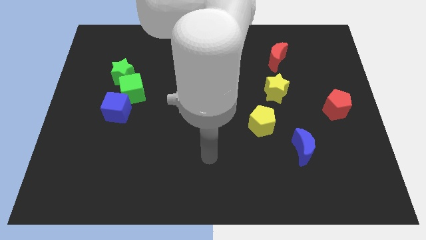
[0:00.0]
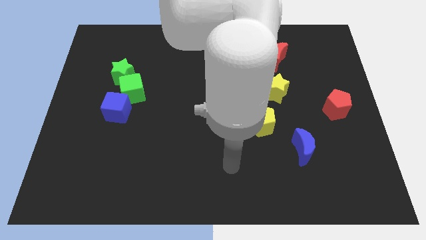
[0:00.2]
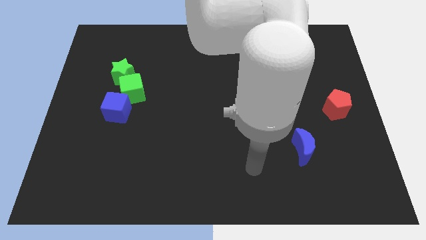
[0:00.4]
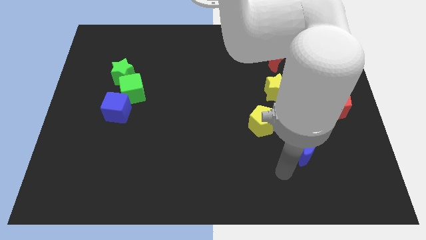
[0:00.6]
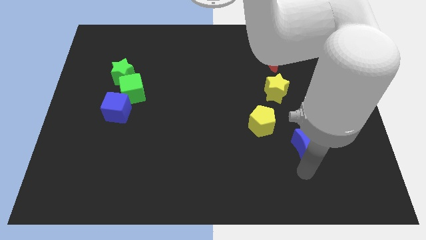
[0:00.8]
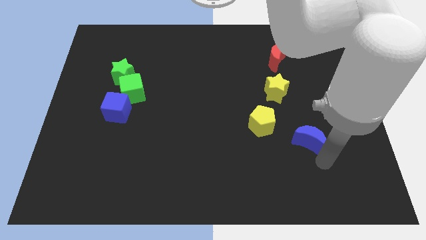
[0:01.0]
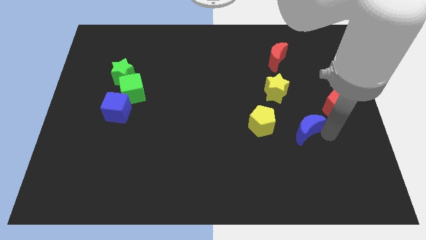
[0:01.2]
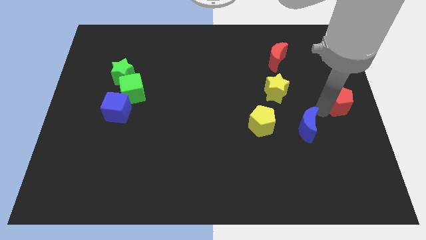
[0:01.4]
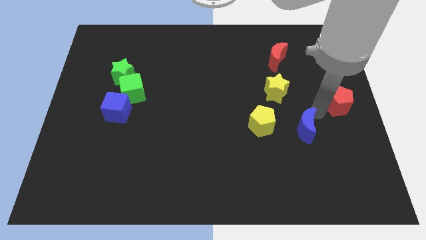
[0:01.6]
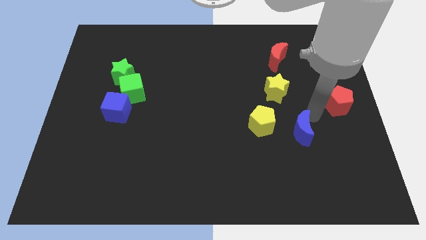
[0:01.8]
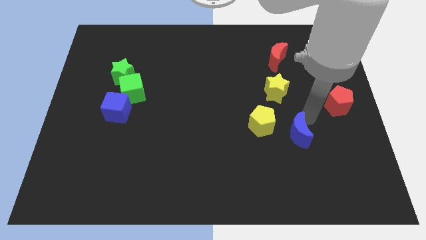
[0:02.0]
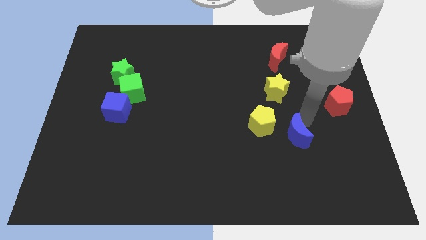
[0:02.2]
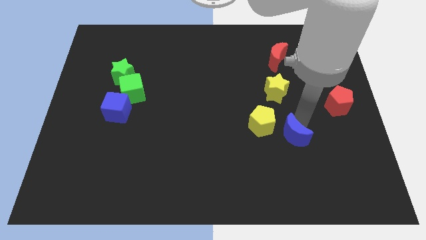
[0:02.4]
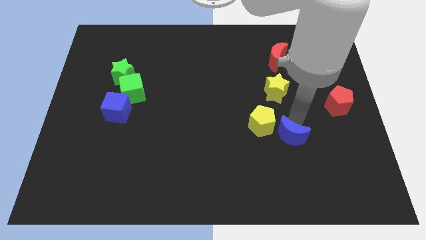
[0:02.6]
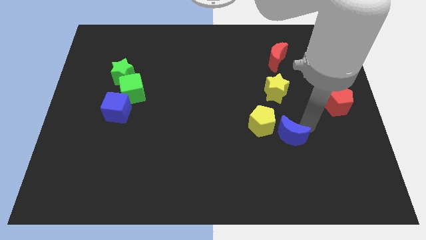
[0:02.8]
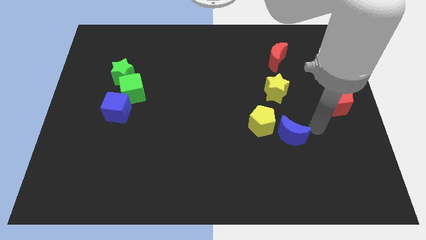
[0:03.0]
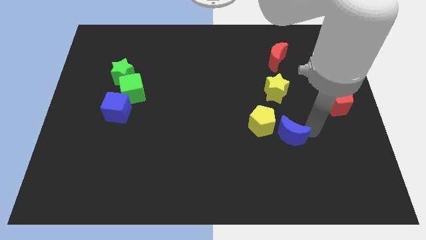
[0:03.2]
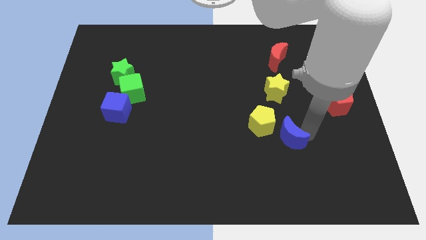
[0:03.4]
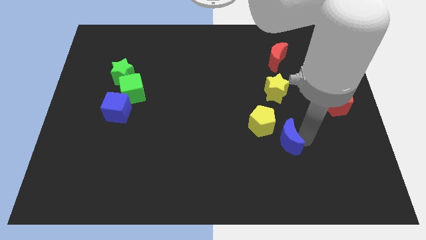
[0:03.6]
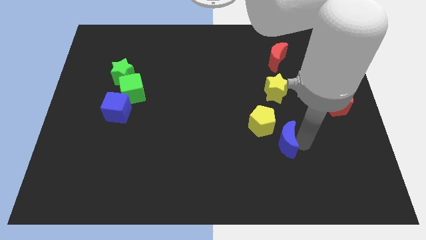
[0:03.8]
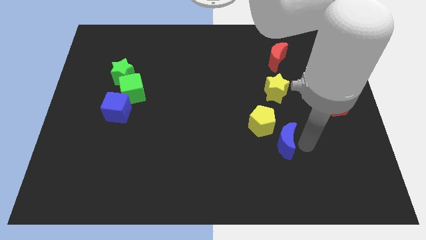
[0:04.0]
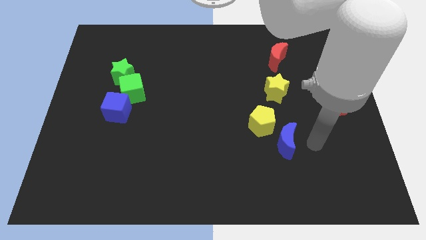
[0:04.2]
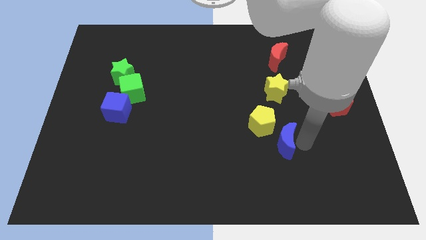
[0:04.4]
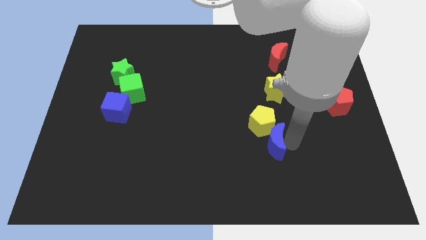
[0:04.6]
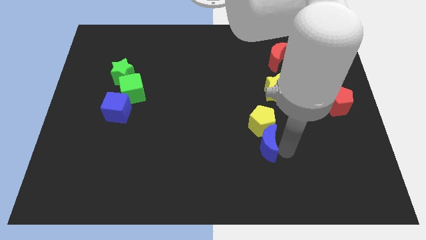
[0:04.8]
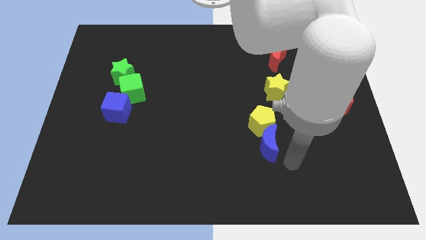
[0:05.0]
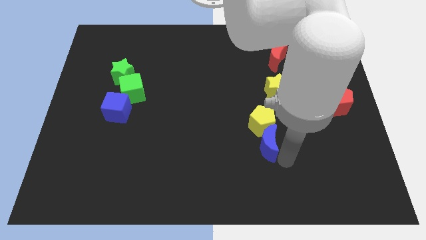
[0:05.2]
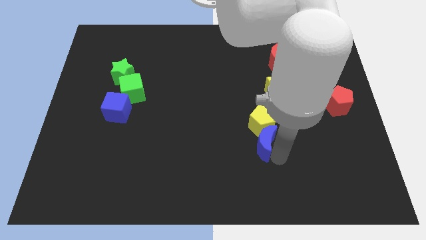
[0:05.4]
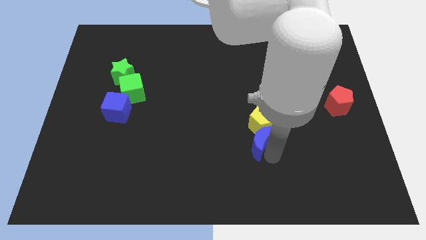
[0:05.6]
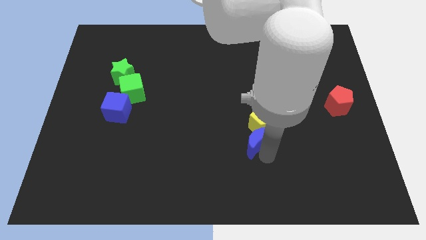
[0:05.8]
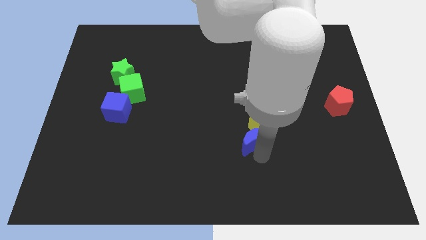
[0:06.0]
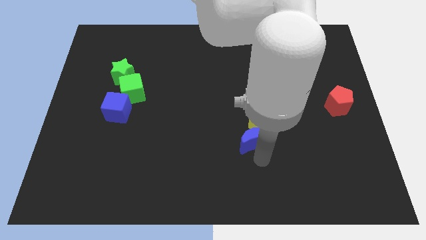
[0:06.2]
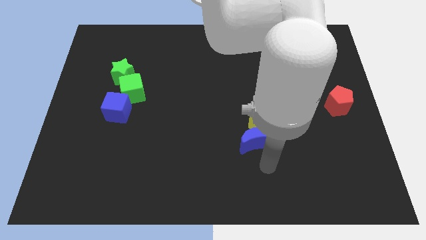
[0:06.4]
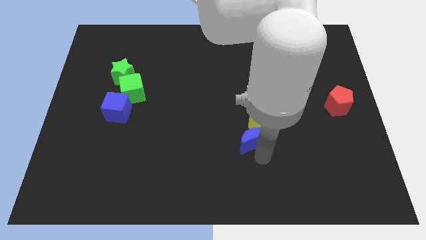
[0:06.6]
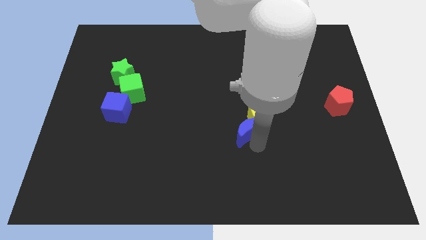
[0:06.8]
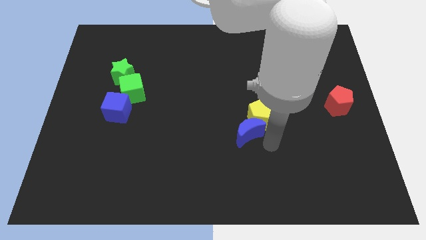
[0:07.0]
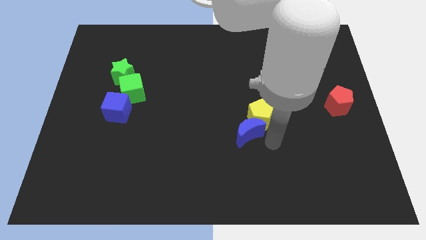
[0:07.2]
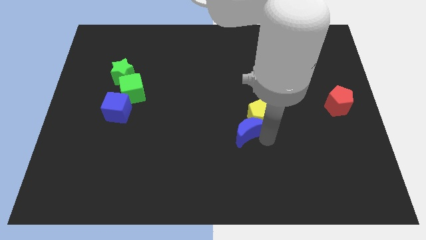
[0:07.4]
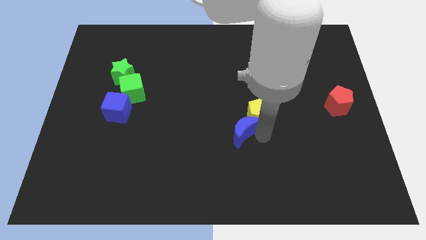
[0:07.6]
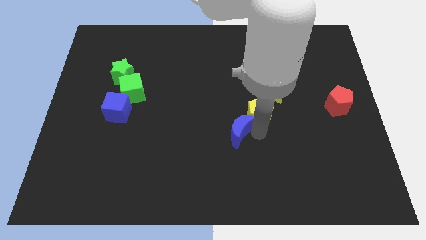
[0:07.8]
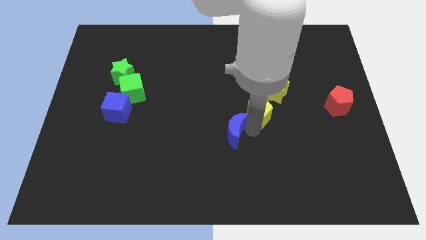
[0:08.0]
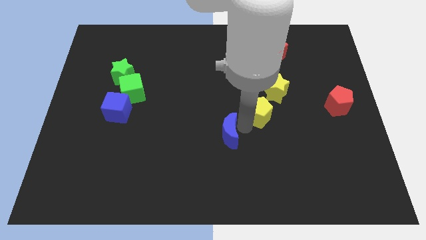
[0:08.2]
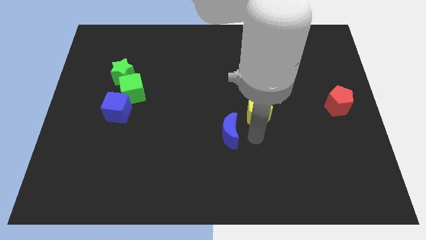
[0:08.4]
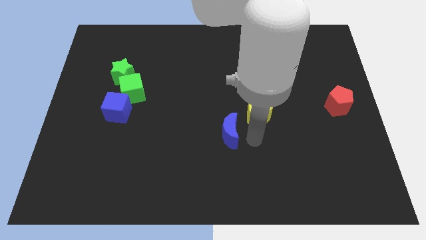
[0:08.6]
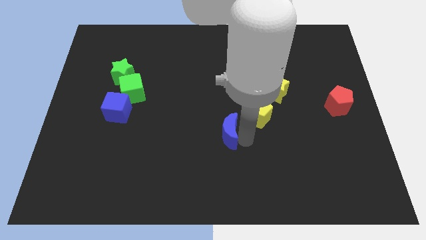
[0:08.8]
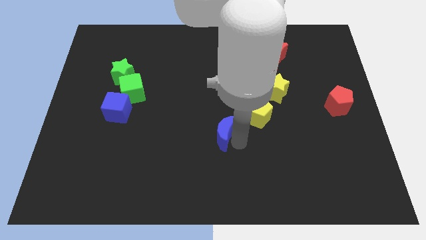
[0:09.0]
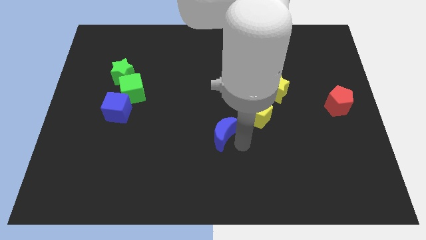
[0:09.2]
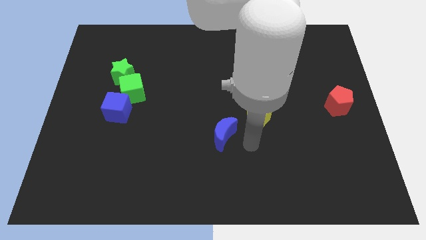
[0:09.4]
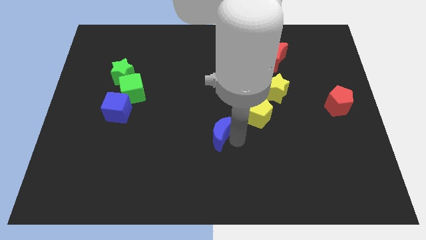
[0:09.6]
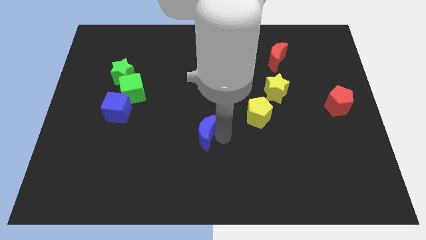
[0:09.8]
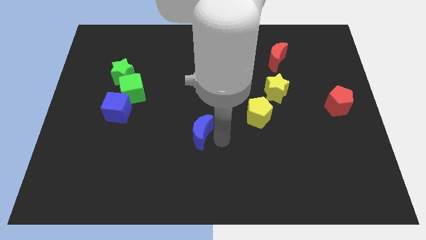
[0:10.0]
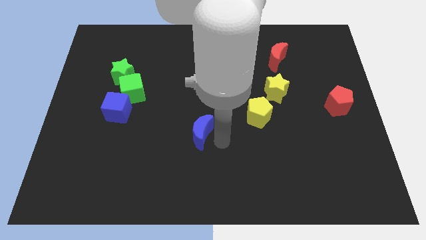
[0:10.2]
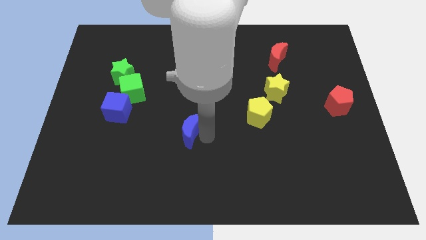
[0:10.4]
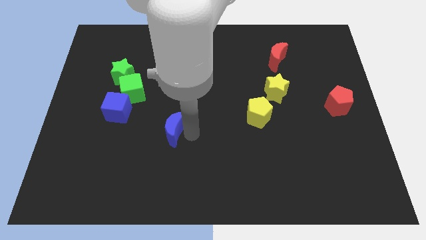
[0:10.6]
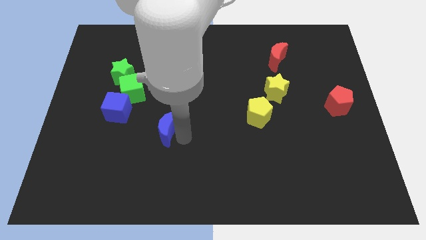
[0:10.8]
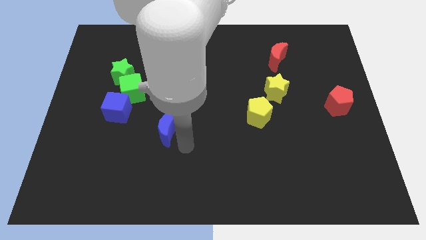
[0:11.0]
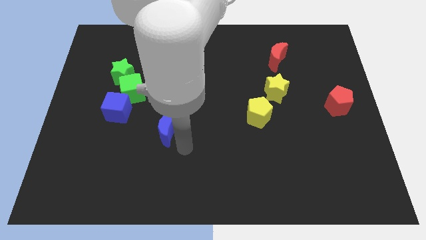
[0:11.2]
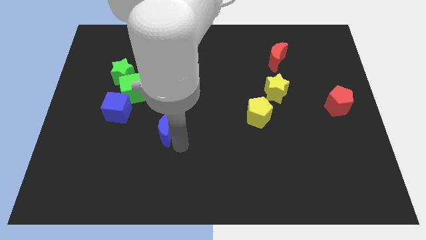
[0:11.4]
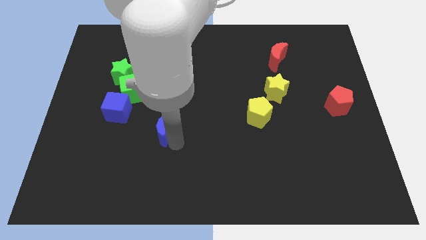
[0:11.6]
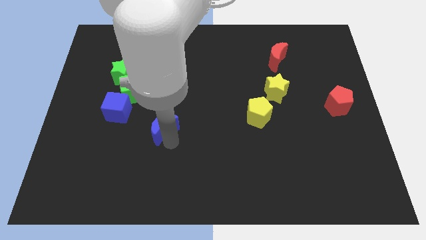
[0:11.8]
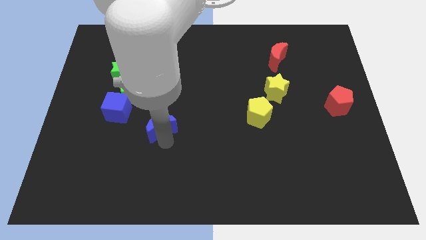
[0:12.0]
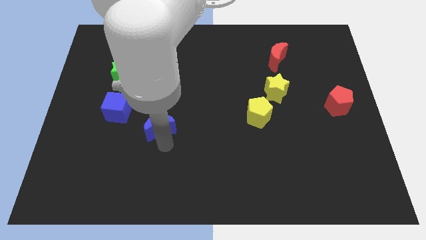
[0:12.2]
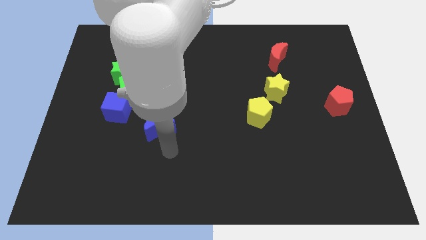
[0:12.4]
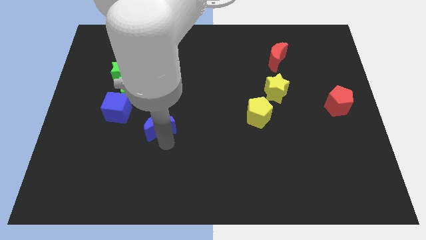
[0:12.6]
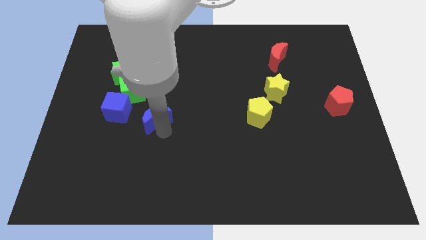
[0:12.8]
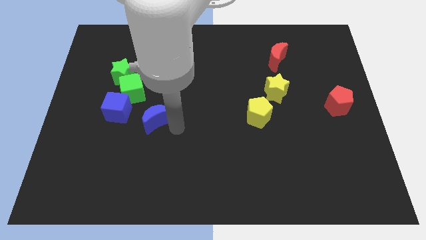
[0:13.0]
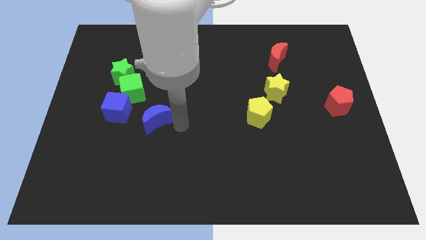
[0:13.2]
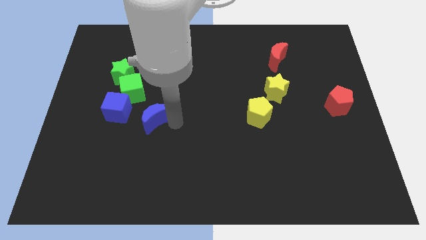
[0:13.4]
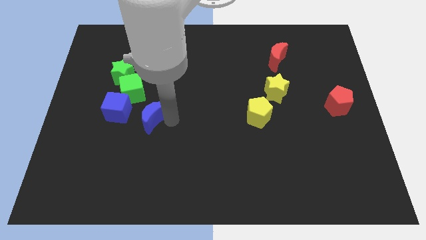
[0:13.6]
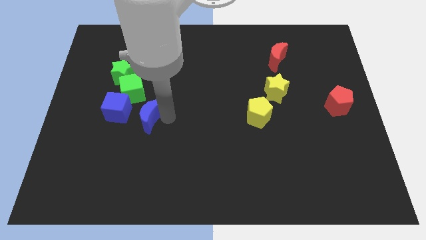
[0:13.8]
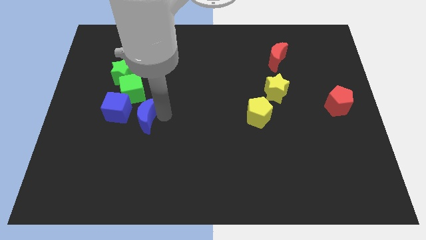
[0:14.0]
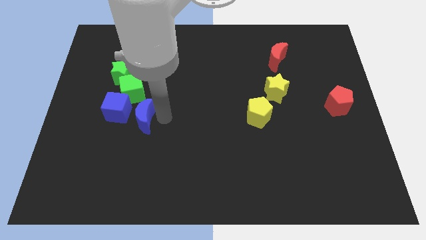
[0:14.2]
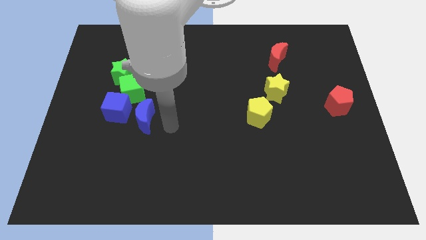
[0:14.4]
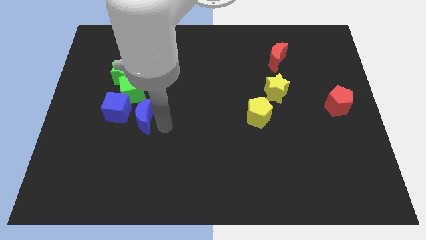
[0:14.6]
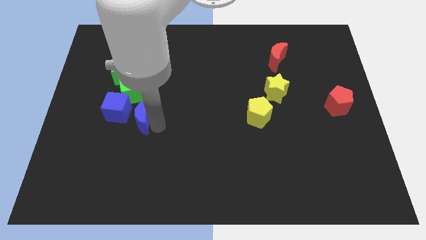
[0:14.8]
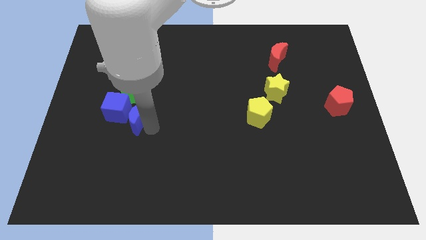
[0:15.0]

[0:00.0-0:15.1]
put the blue moon towards the blue cube
